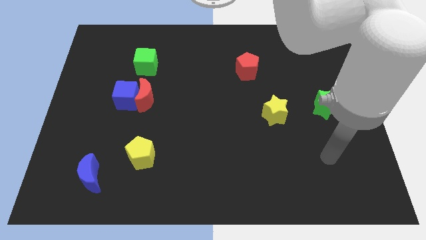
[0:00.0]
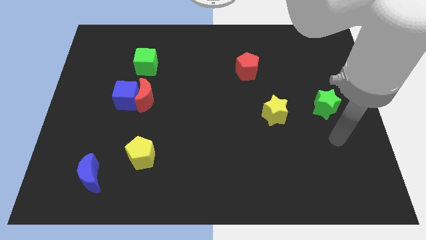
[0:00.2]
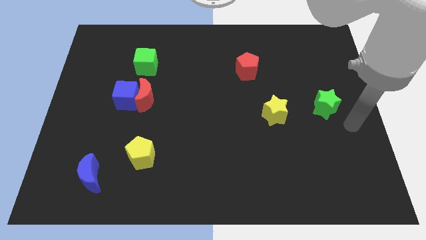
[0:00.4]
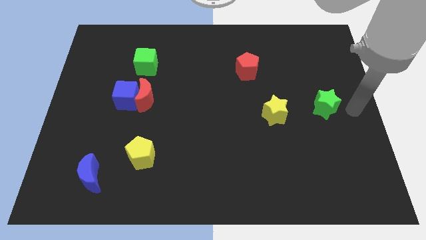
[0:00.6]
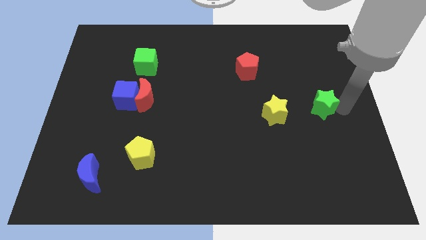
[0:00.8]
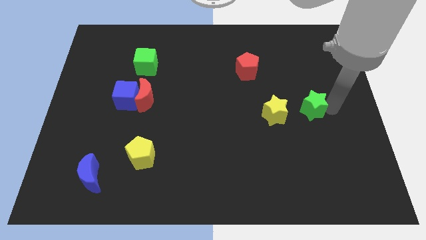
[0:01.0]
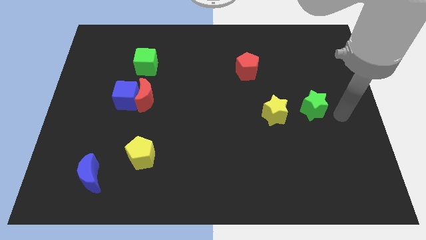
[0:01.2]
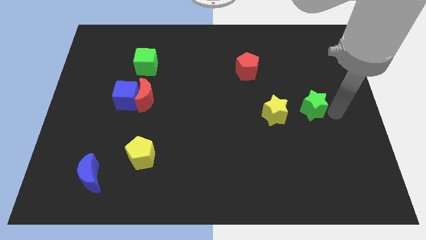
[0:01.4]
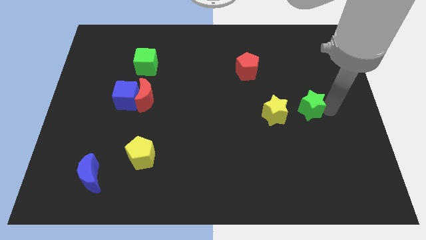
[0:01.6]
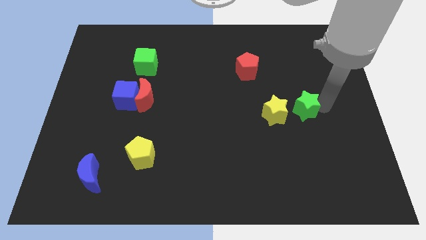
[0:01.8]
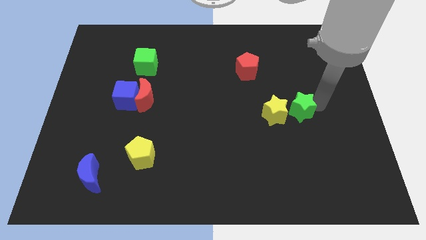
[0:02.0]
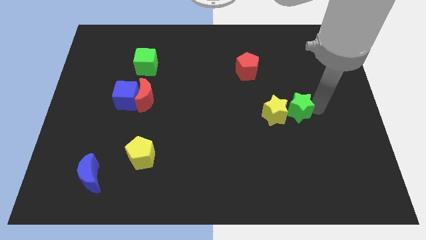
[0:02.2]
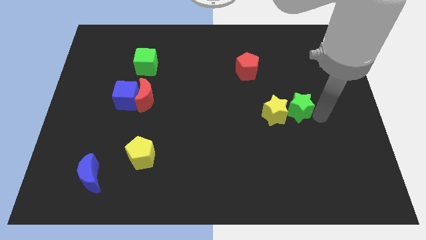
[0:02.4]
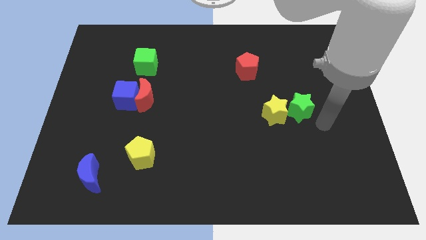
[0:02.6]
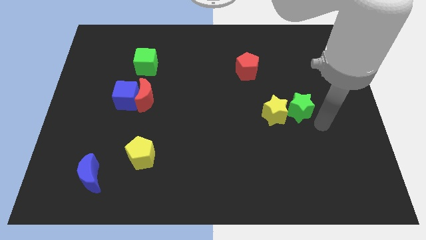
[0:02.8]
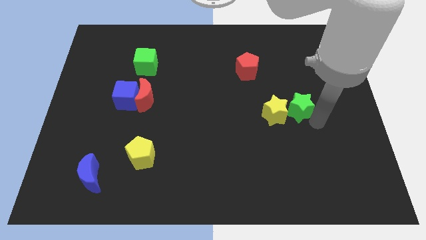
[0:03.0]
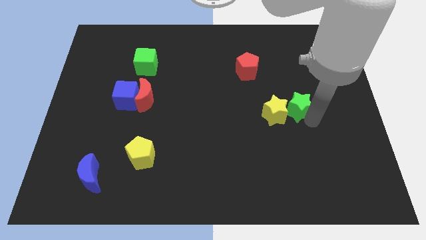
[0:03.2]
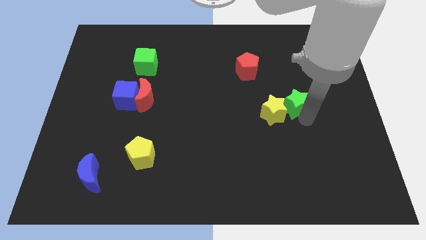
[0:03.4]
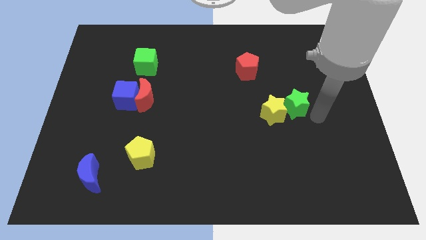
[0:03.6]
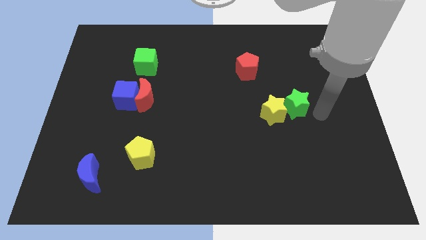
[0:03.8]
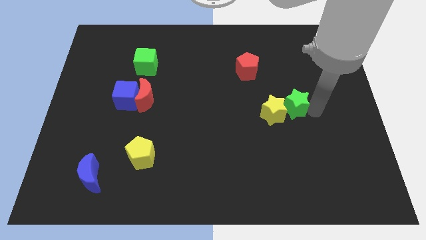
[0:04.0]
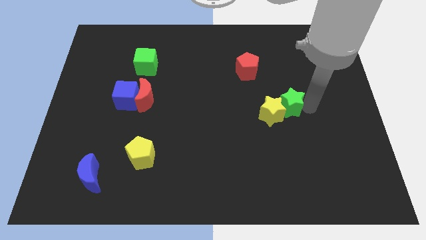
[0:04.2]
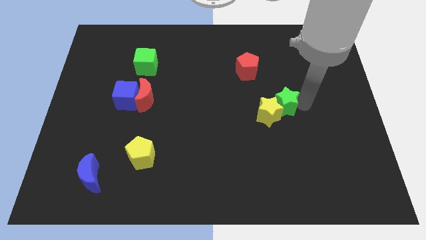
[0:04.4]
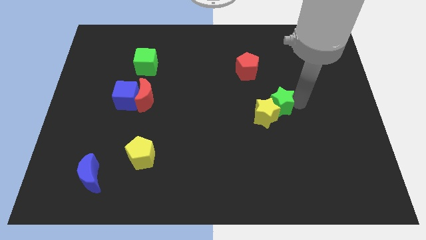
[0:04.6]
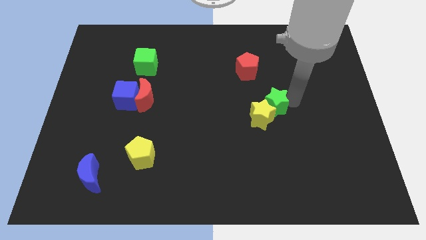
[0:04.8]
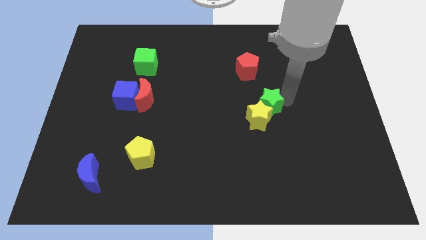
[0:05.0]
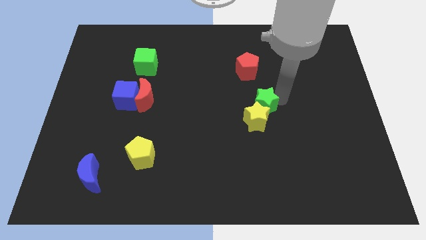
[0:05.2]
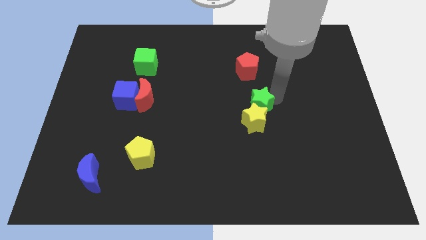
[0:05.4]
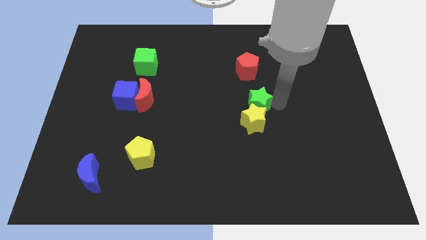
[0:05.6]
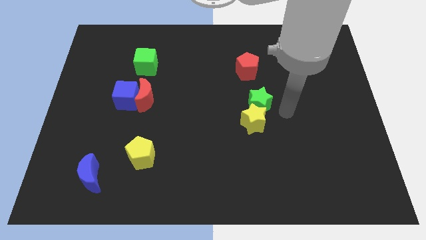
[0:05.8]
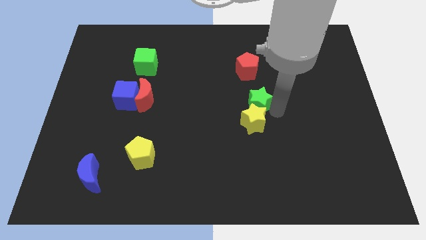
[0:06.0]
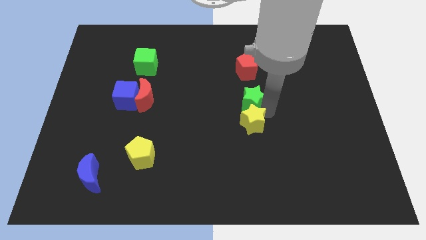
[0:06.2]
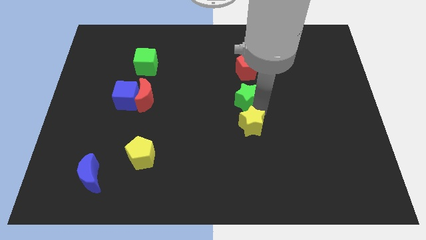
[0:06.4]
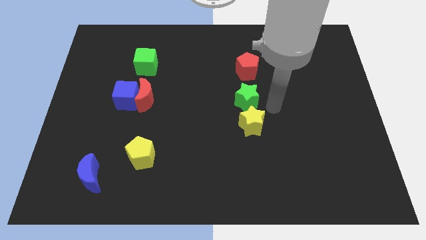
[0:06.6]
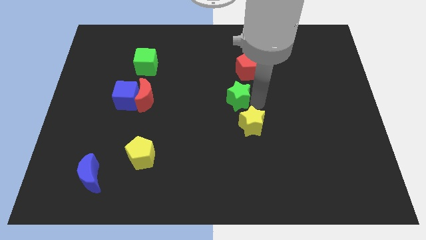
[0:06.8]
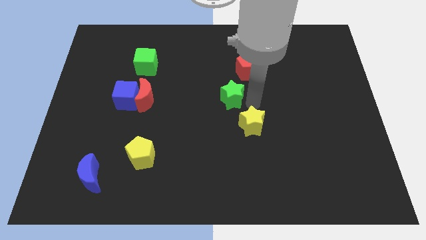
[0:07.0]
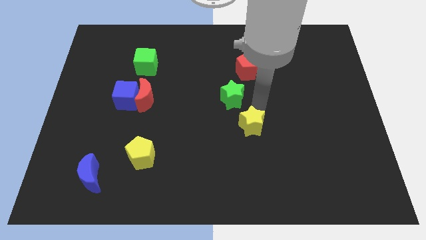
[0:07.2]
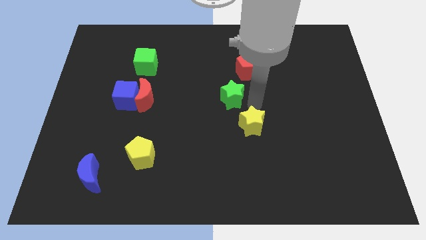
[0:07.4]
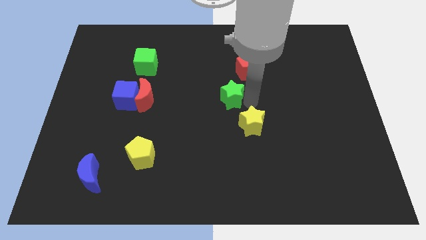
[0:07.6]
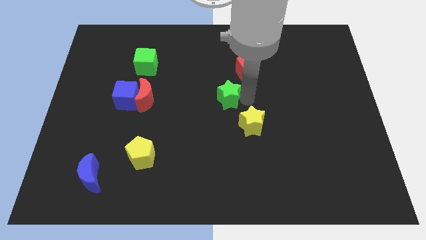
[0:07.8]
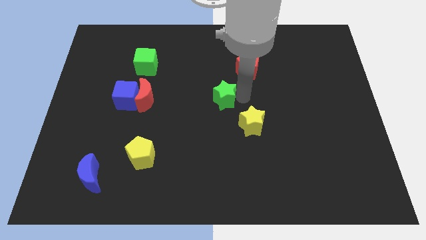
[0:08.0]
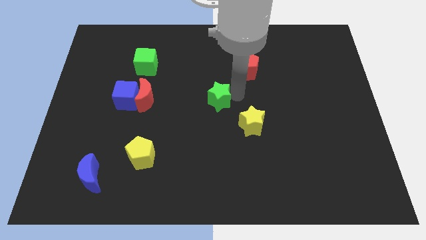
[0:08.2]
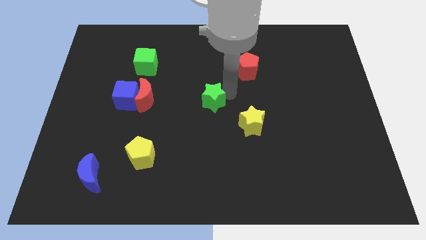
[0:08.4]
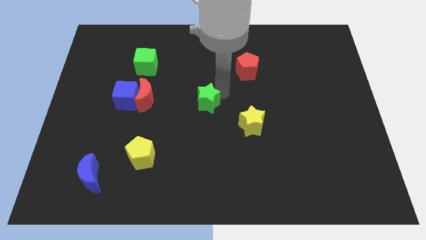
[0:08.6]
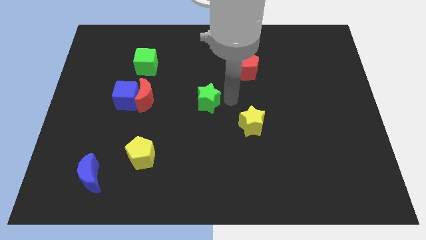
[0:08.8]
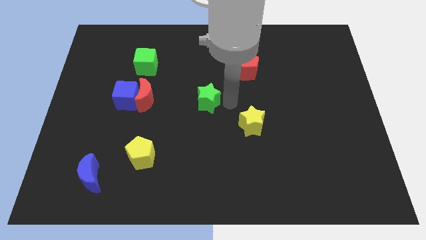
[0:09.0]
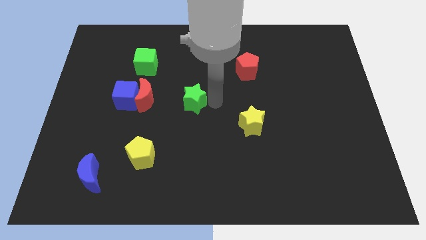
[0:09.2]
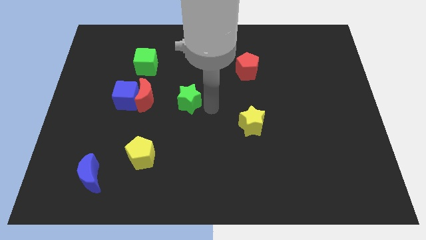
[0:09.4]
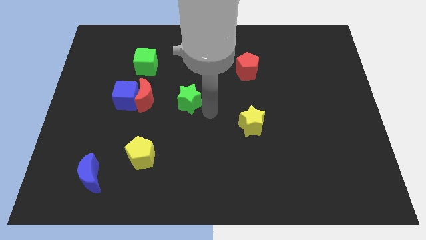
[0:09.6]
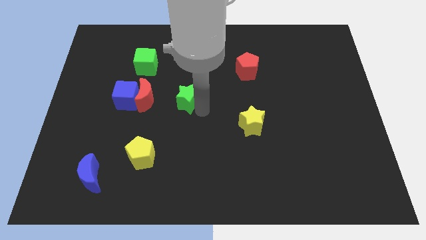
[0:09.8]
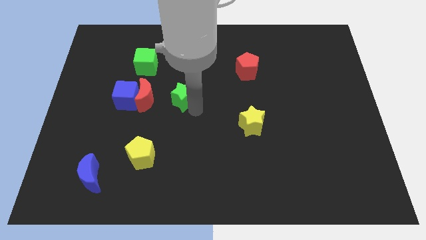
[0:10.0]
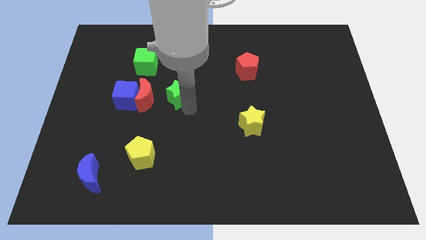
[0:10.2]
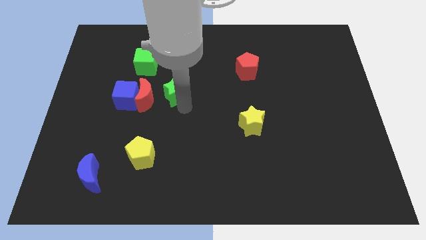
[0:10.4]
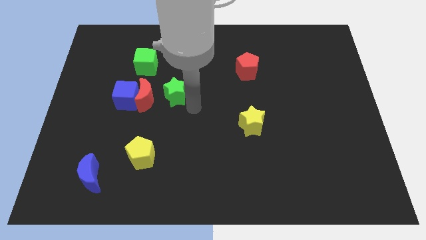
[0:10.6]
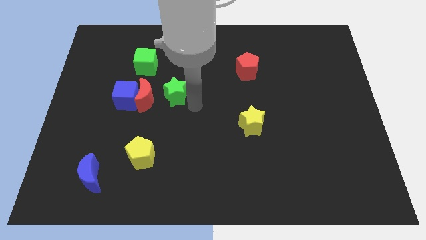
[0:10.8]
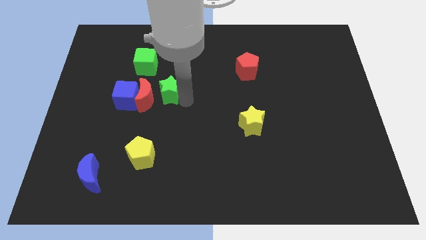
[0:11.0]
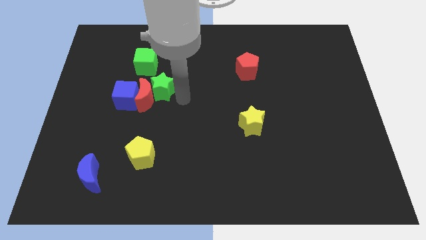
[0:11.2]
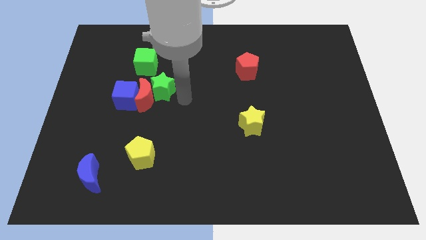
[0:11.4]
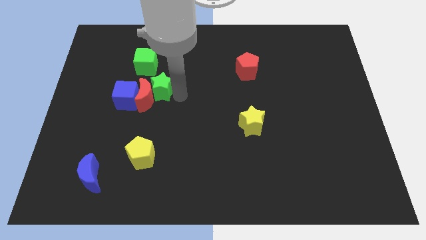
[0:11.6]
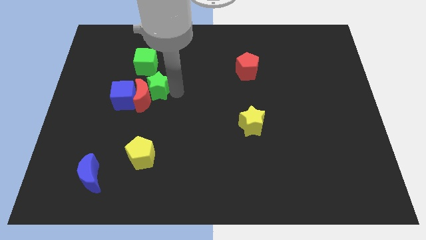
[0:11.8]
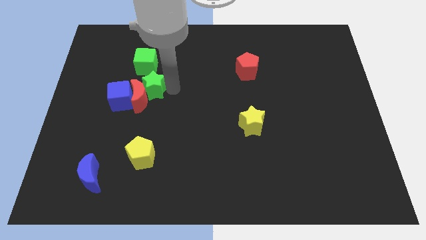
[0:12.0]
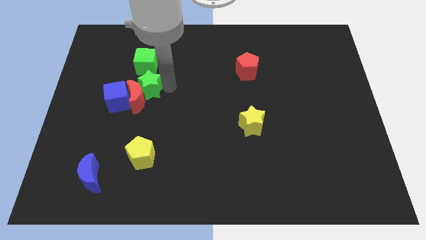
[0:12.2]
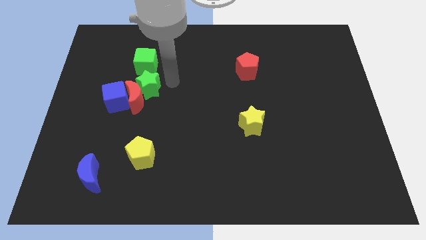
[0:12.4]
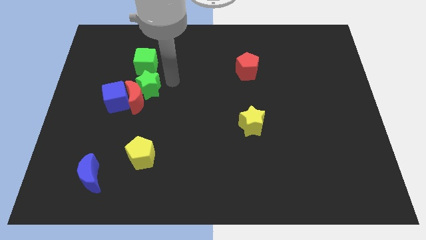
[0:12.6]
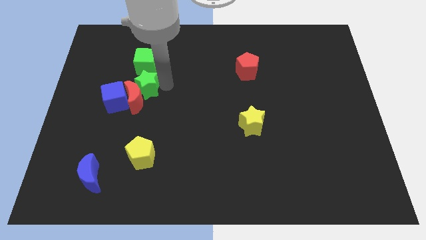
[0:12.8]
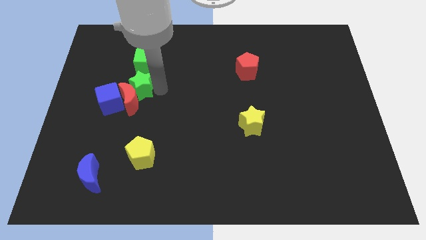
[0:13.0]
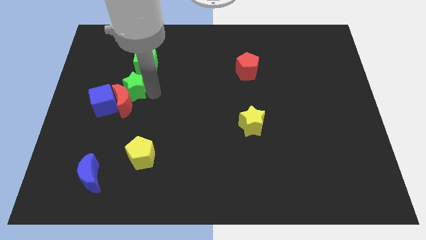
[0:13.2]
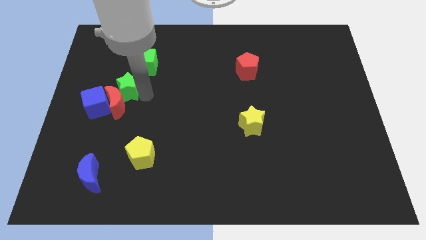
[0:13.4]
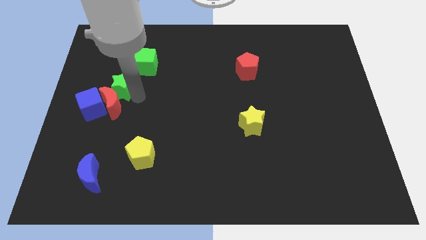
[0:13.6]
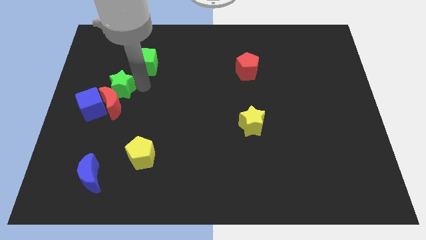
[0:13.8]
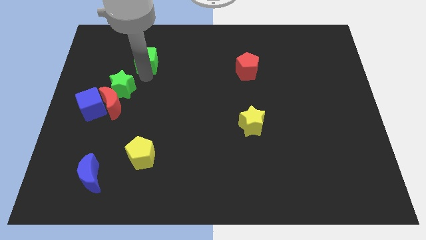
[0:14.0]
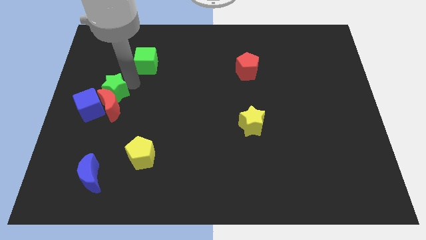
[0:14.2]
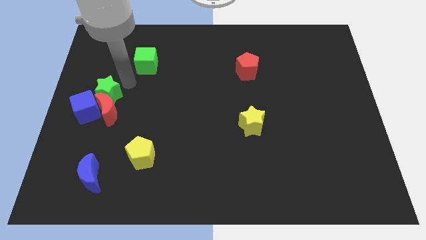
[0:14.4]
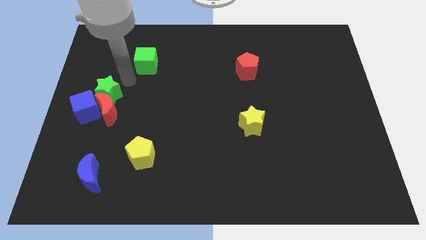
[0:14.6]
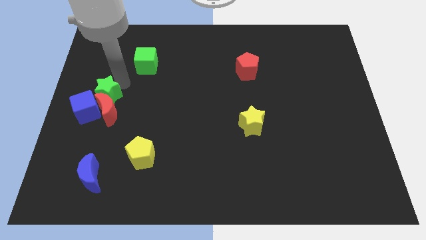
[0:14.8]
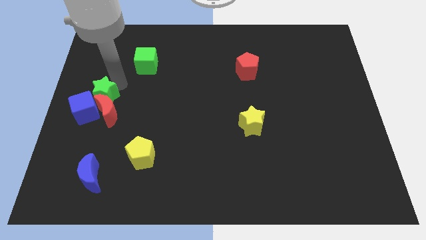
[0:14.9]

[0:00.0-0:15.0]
put the green star towards the blue cube
